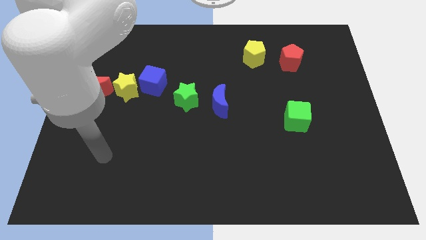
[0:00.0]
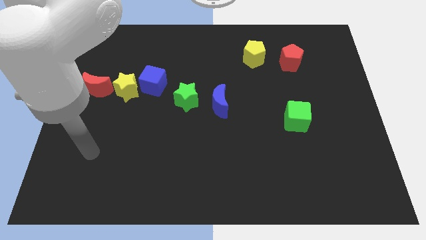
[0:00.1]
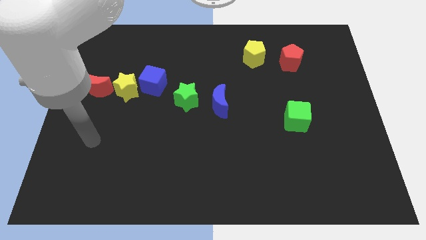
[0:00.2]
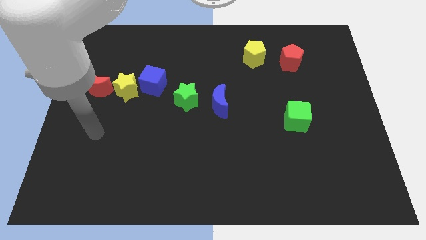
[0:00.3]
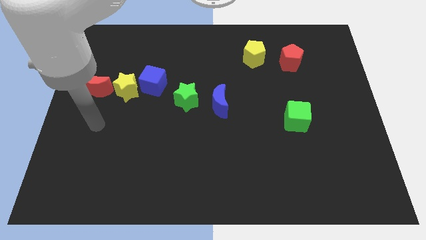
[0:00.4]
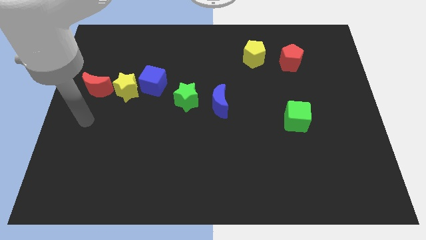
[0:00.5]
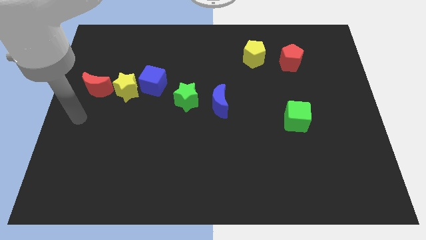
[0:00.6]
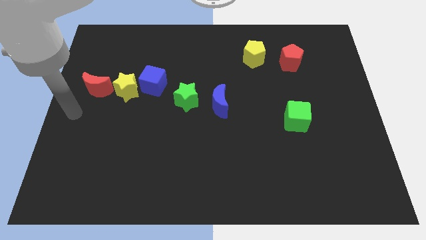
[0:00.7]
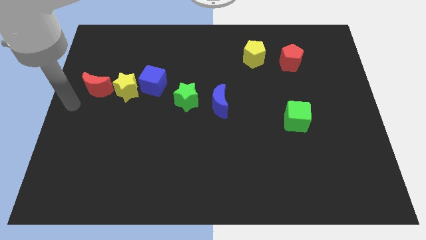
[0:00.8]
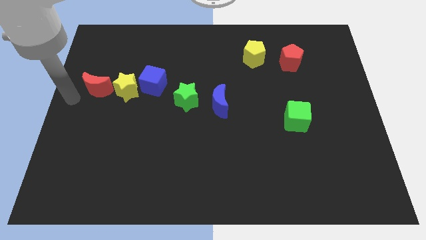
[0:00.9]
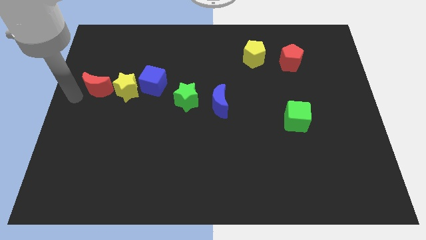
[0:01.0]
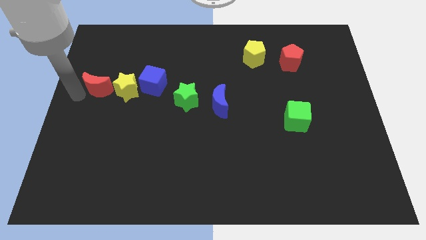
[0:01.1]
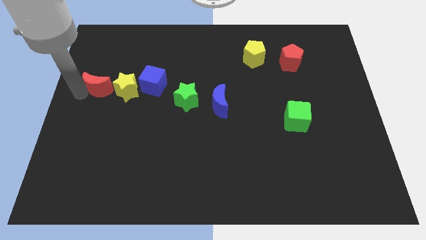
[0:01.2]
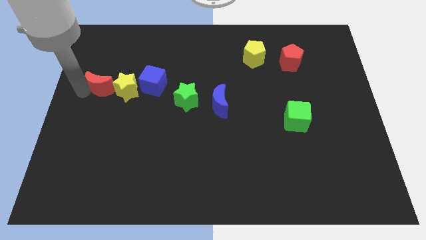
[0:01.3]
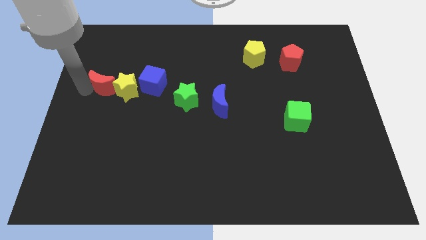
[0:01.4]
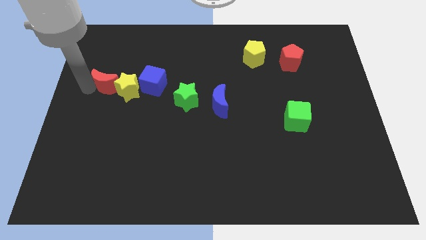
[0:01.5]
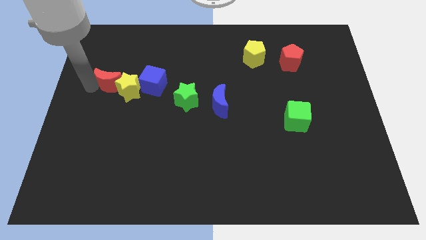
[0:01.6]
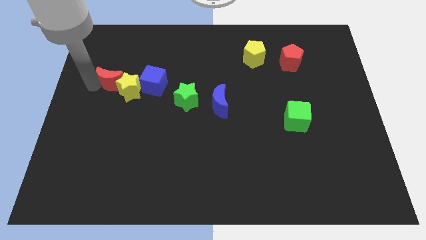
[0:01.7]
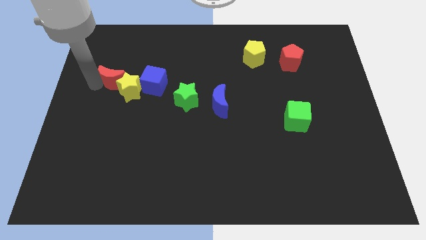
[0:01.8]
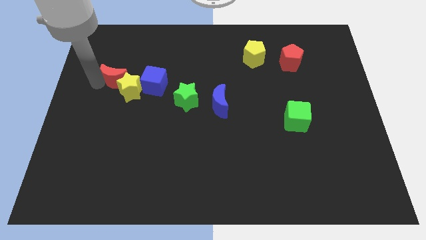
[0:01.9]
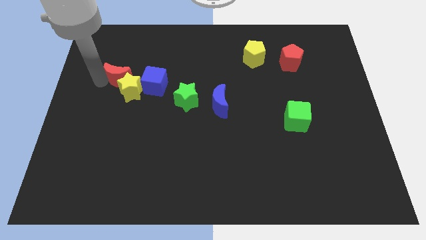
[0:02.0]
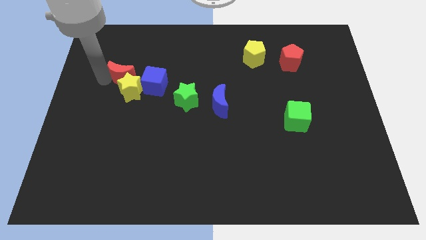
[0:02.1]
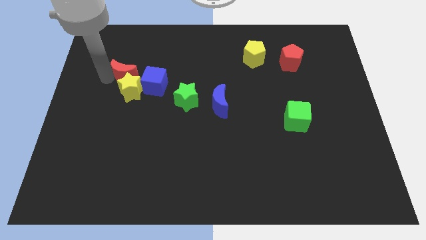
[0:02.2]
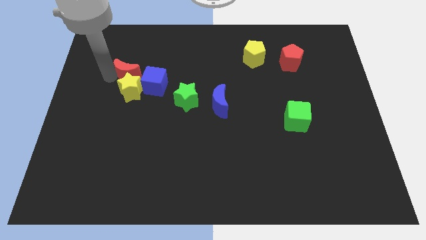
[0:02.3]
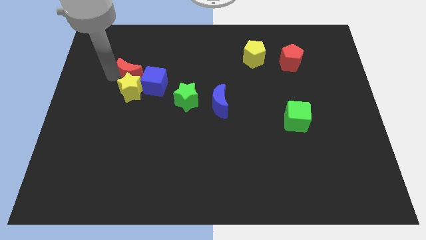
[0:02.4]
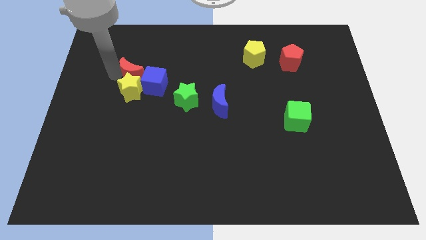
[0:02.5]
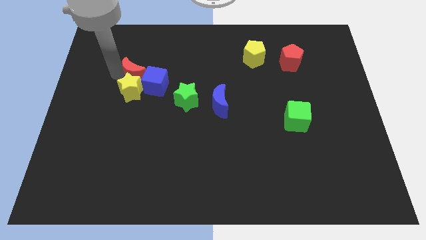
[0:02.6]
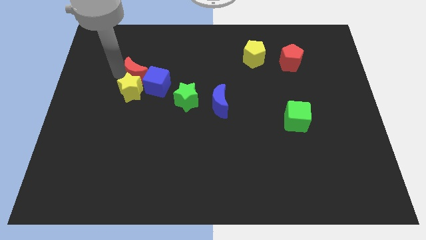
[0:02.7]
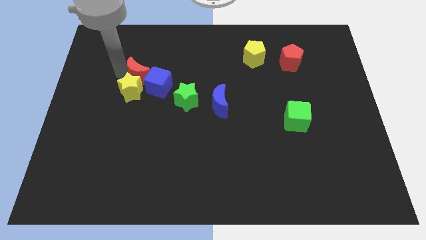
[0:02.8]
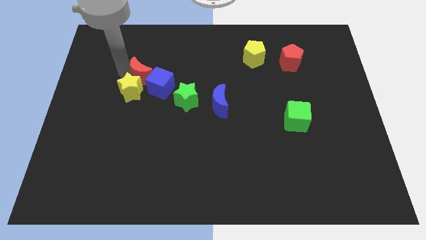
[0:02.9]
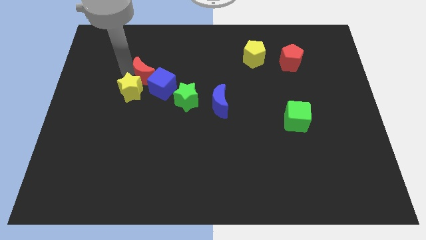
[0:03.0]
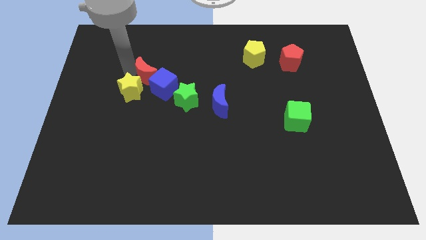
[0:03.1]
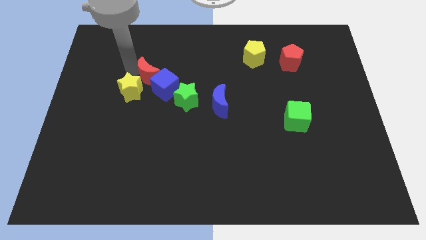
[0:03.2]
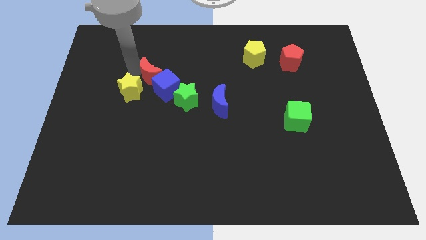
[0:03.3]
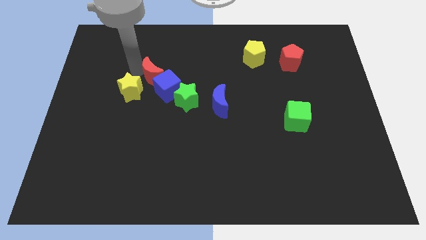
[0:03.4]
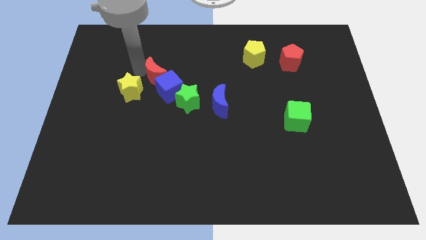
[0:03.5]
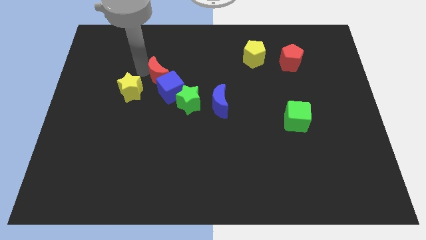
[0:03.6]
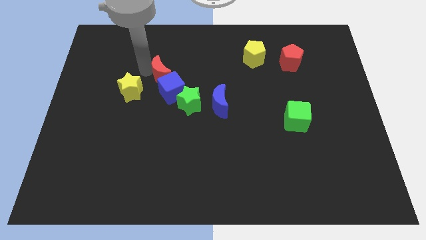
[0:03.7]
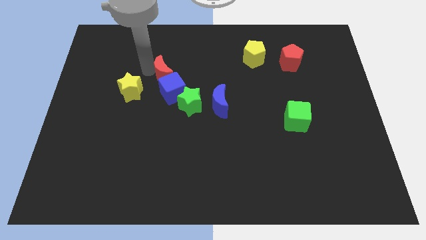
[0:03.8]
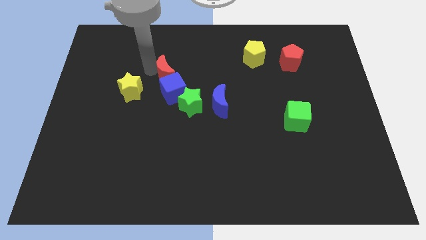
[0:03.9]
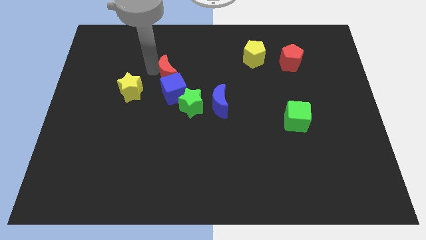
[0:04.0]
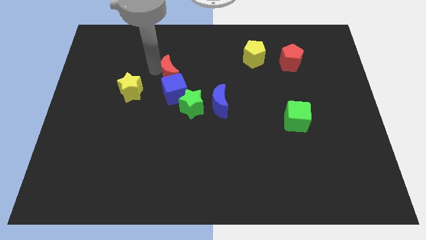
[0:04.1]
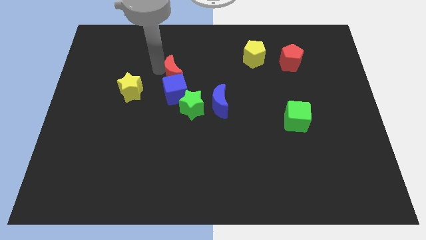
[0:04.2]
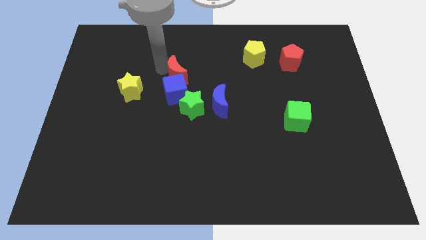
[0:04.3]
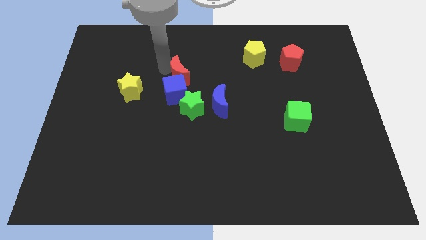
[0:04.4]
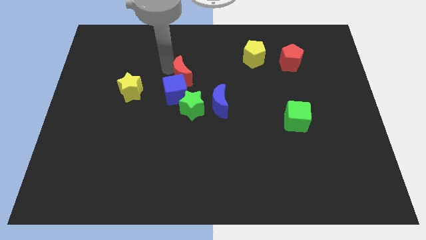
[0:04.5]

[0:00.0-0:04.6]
move the red moon right

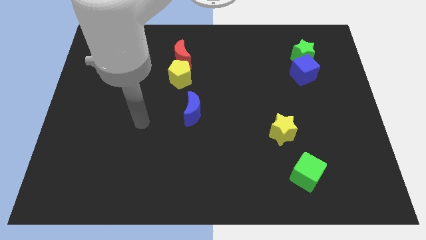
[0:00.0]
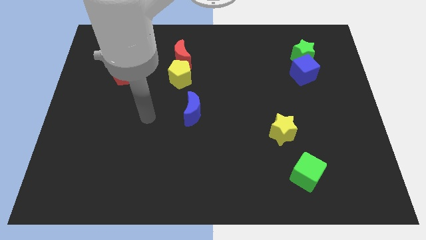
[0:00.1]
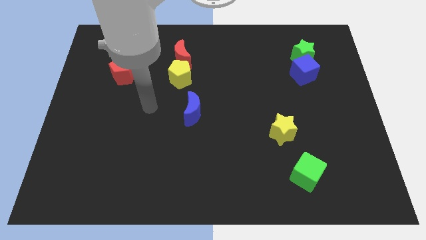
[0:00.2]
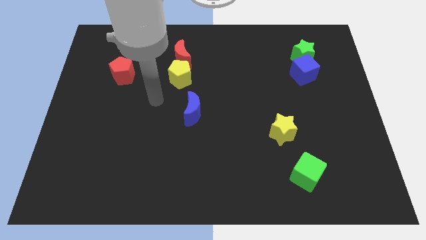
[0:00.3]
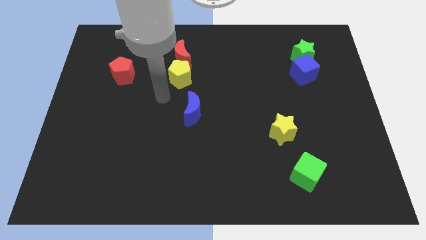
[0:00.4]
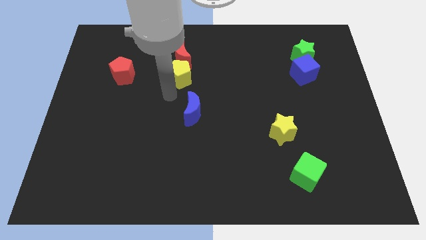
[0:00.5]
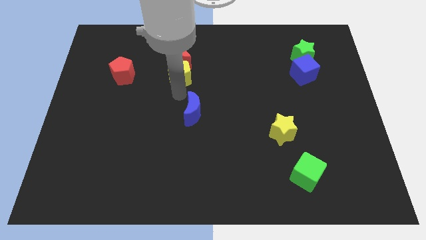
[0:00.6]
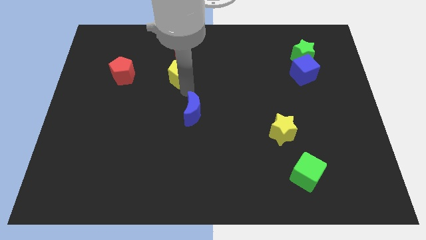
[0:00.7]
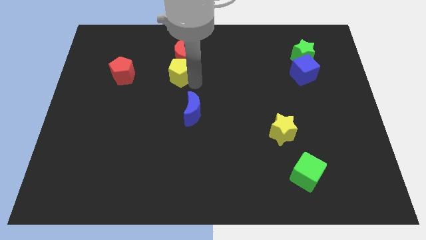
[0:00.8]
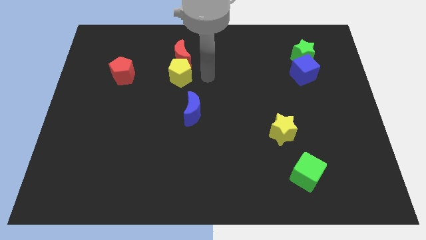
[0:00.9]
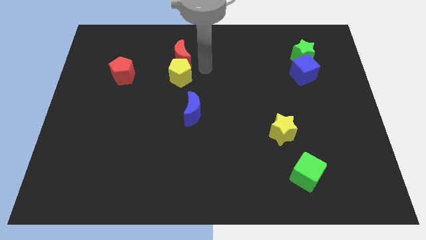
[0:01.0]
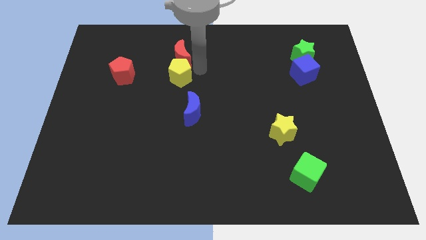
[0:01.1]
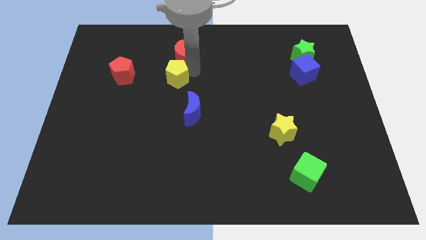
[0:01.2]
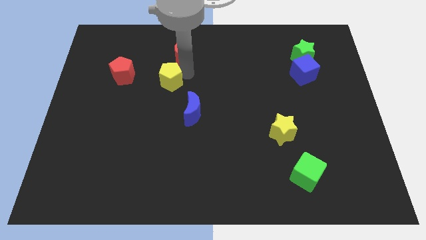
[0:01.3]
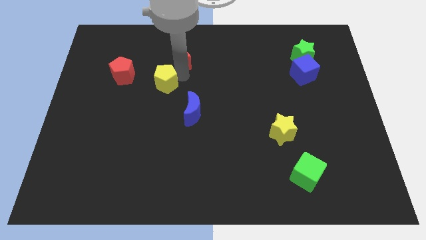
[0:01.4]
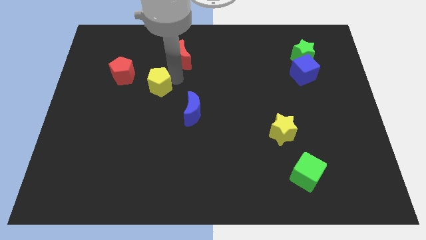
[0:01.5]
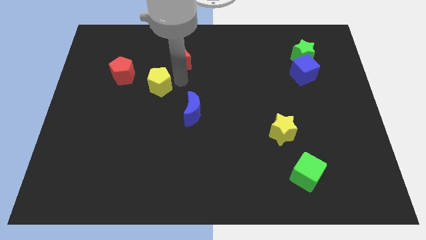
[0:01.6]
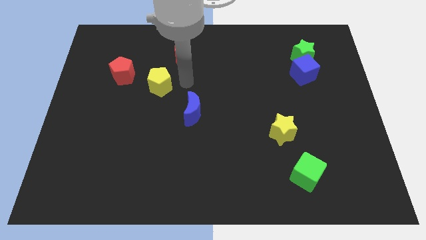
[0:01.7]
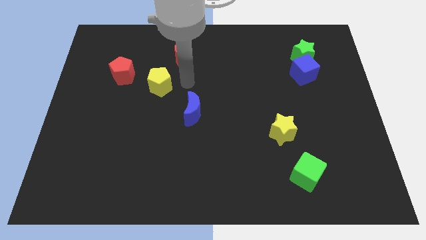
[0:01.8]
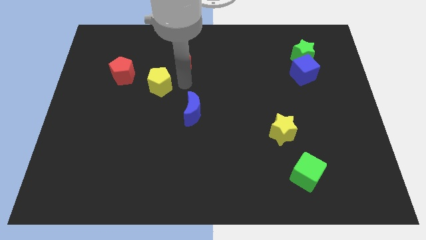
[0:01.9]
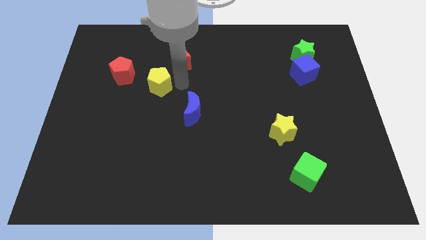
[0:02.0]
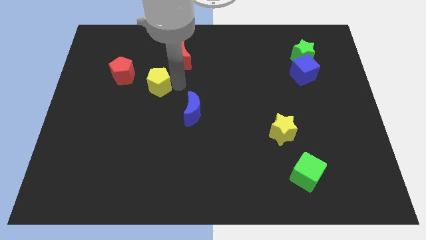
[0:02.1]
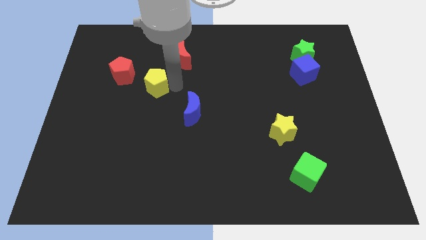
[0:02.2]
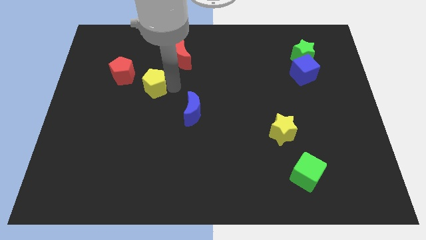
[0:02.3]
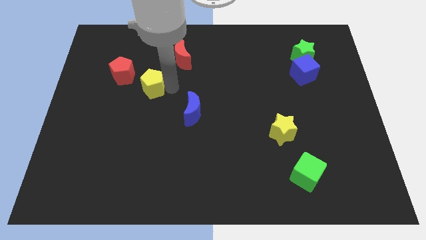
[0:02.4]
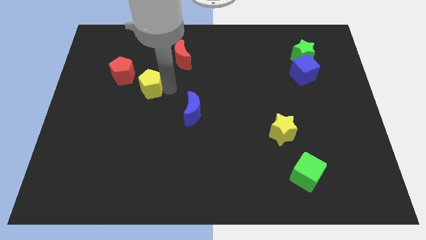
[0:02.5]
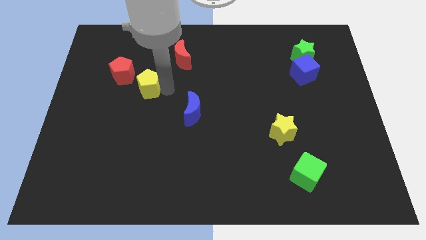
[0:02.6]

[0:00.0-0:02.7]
slightly move the yellow pentagon to the left

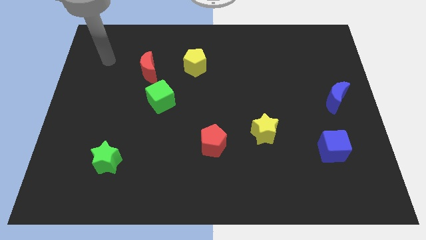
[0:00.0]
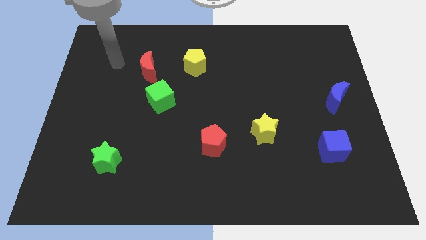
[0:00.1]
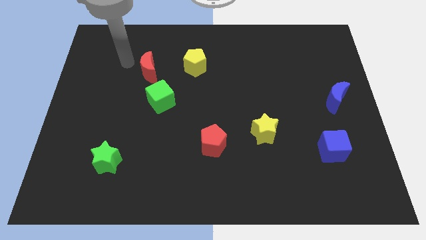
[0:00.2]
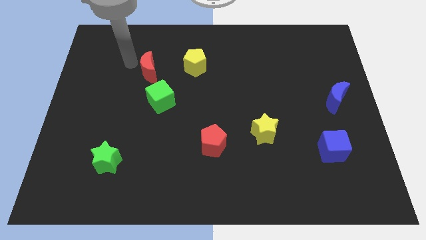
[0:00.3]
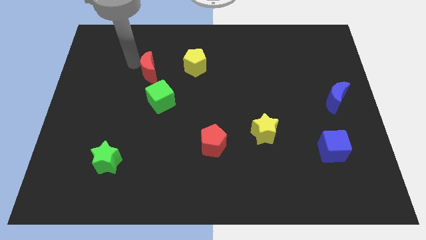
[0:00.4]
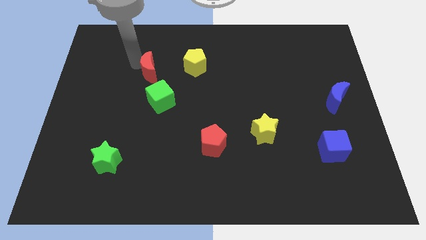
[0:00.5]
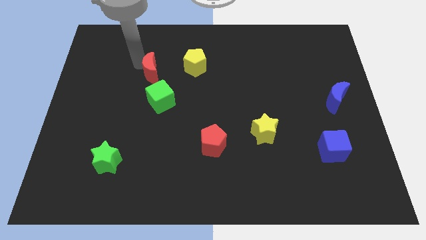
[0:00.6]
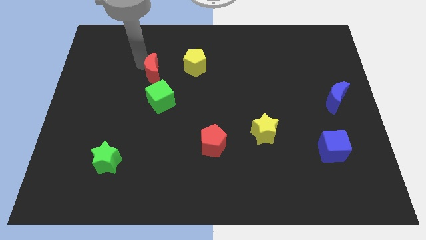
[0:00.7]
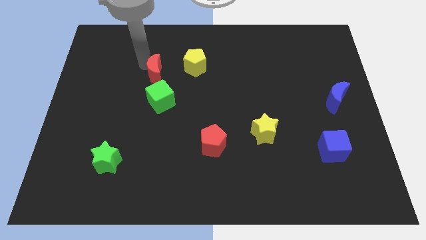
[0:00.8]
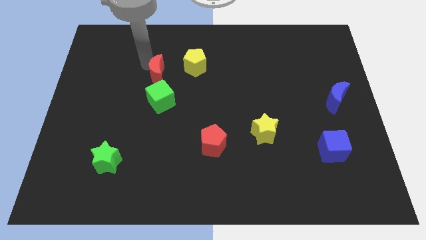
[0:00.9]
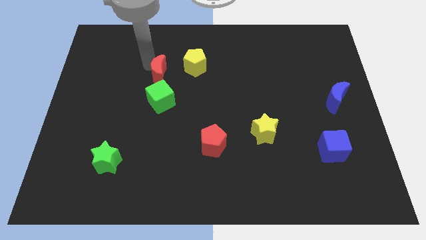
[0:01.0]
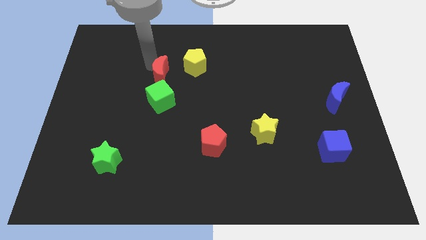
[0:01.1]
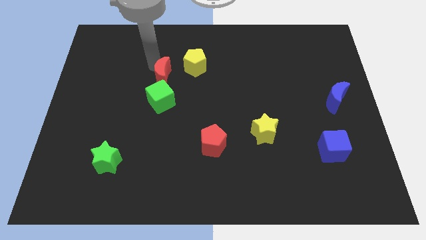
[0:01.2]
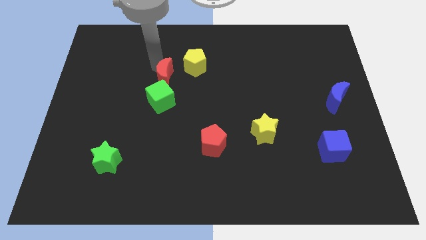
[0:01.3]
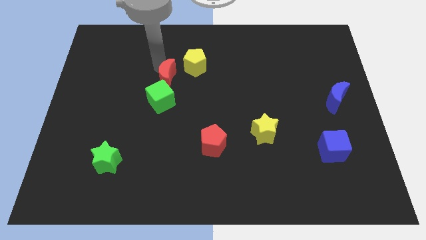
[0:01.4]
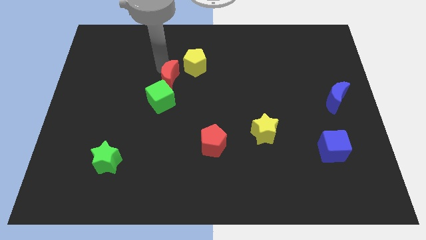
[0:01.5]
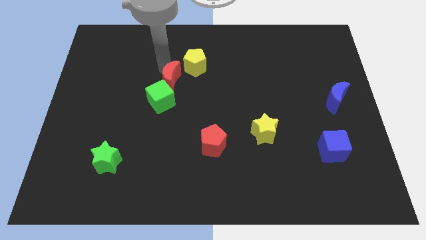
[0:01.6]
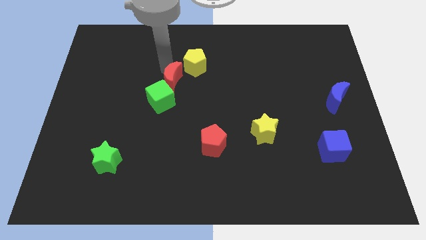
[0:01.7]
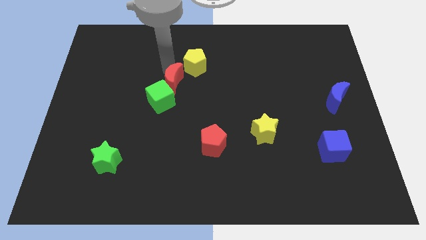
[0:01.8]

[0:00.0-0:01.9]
move the red moon diagonally down and right a bit
